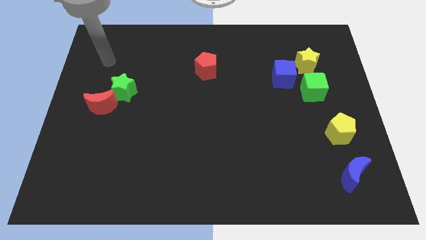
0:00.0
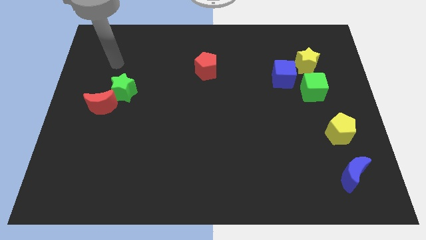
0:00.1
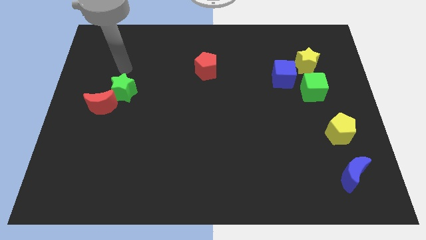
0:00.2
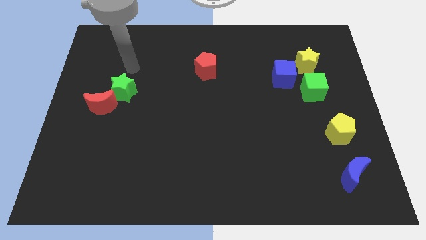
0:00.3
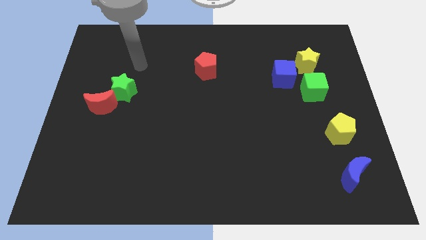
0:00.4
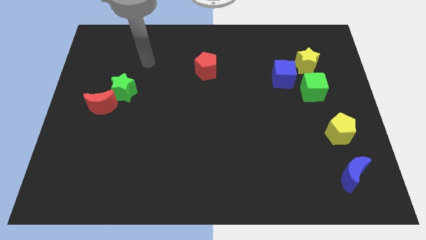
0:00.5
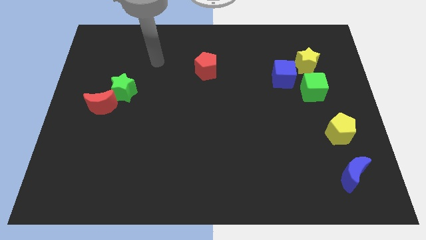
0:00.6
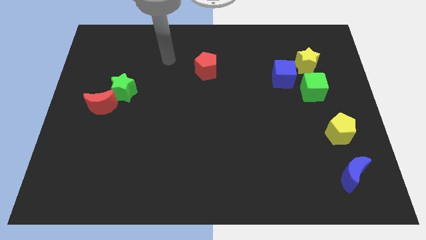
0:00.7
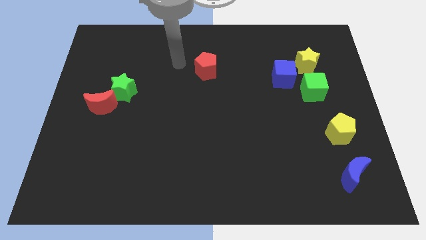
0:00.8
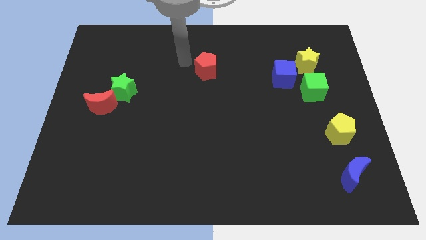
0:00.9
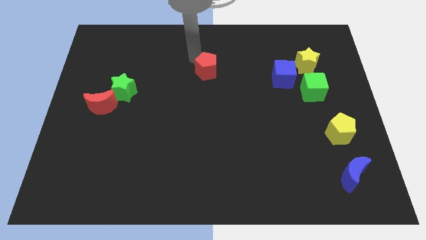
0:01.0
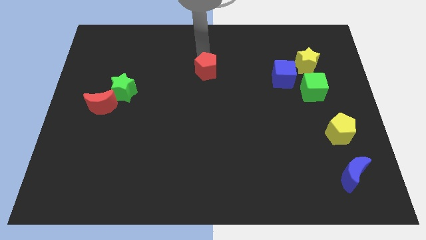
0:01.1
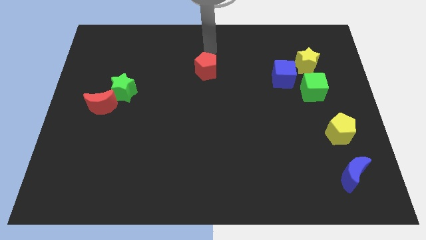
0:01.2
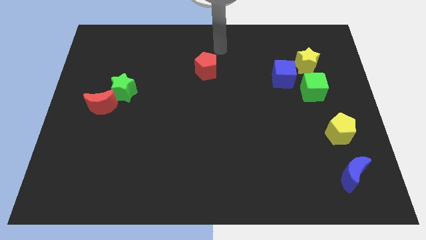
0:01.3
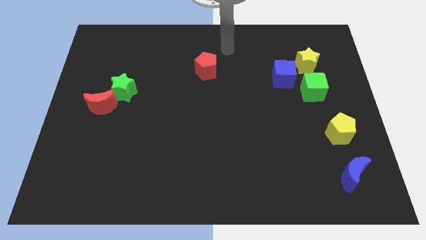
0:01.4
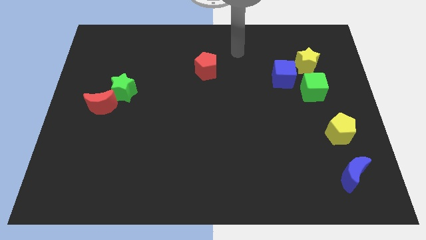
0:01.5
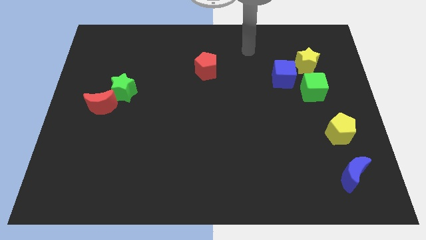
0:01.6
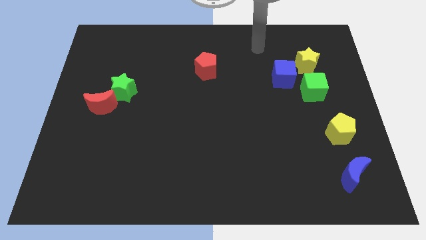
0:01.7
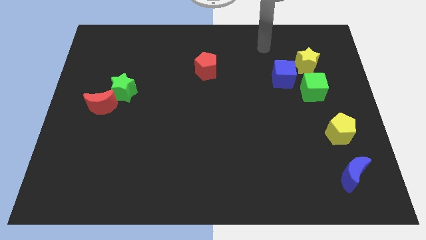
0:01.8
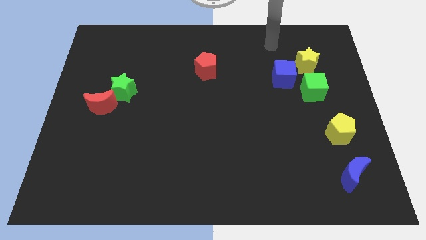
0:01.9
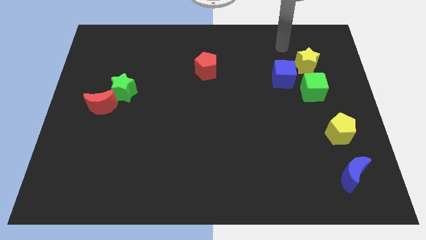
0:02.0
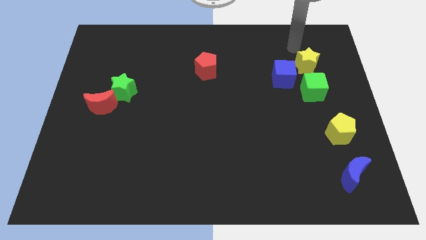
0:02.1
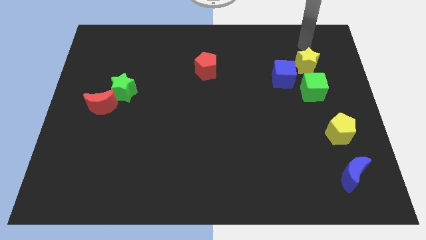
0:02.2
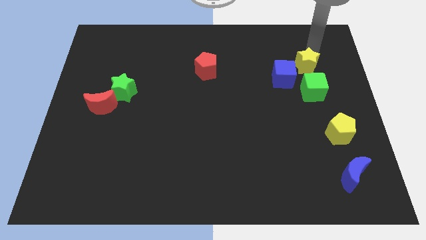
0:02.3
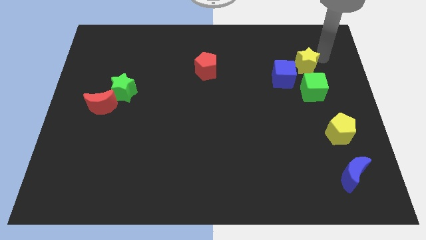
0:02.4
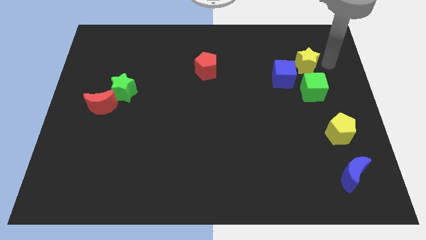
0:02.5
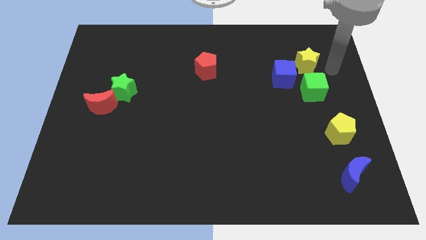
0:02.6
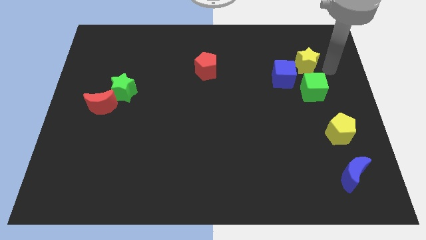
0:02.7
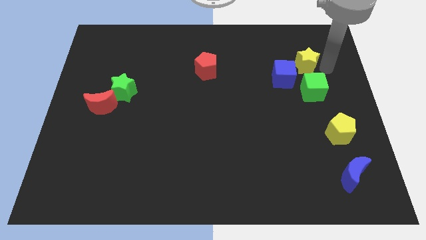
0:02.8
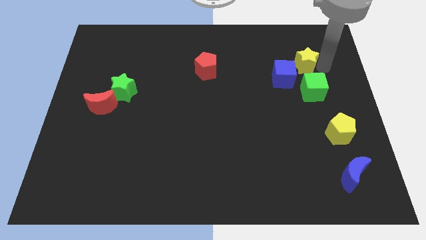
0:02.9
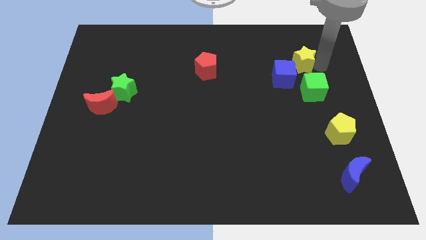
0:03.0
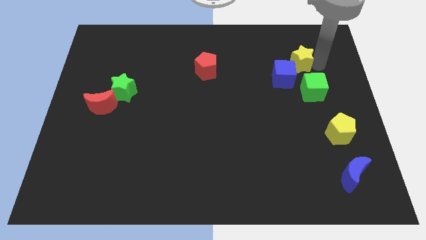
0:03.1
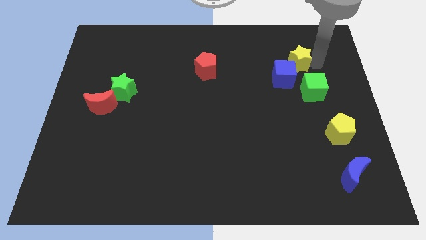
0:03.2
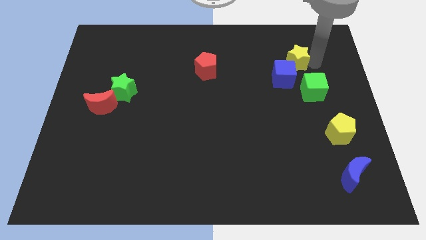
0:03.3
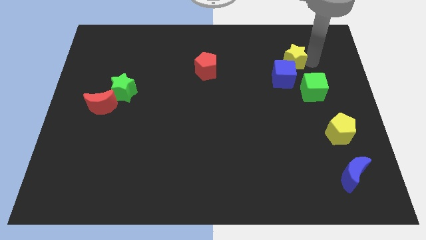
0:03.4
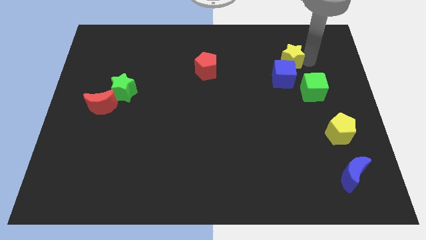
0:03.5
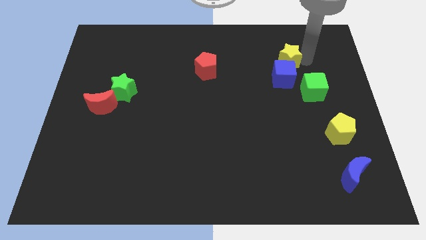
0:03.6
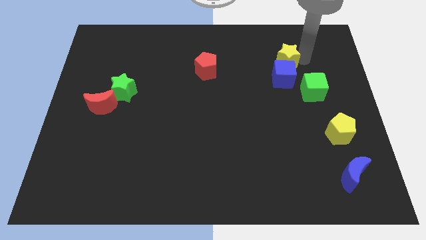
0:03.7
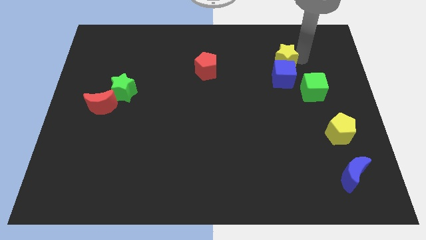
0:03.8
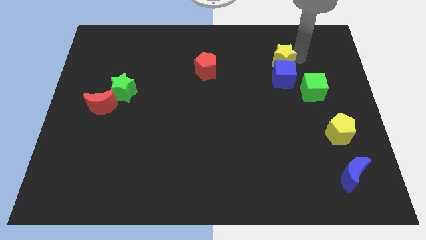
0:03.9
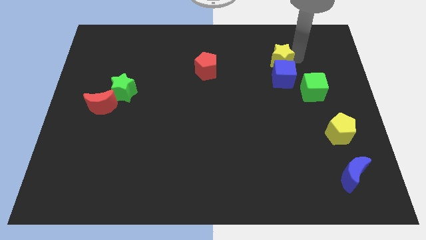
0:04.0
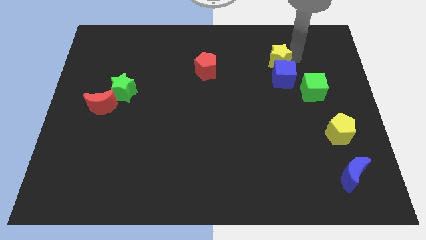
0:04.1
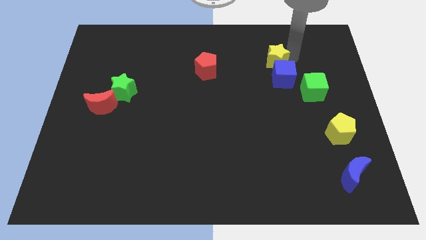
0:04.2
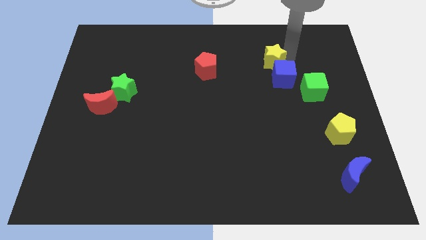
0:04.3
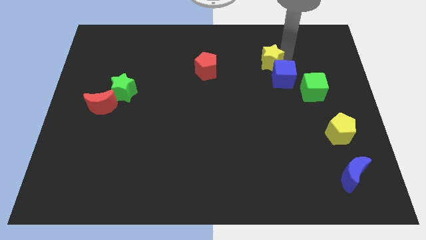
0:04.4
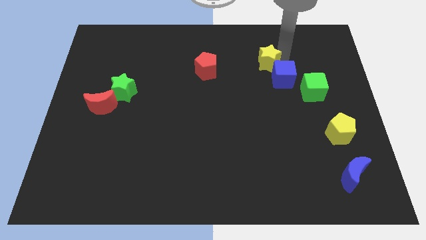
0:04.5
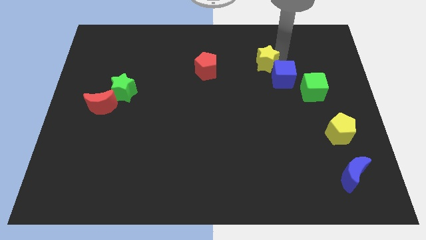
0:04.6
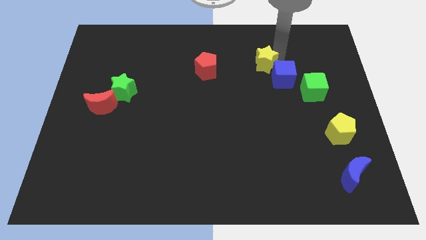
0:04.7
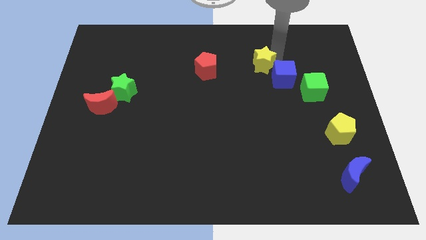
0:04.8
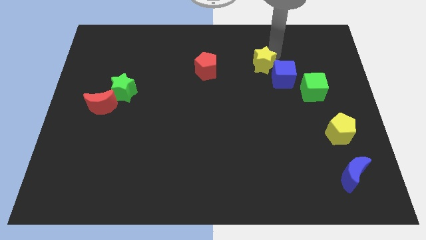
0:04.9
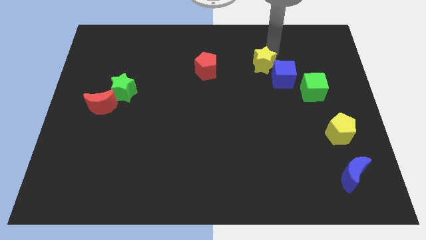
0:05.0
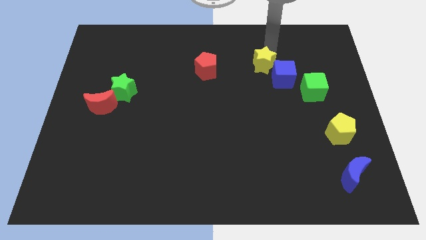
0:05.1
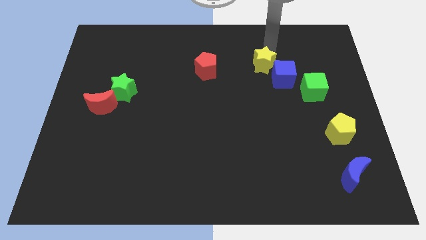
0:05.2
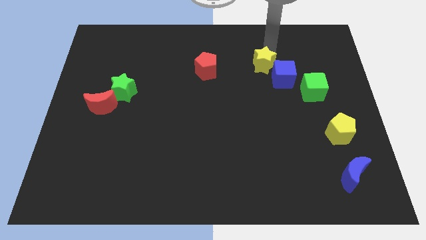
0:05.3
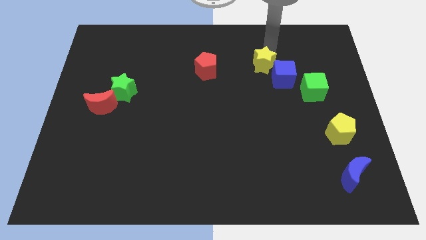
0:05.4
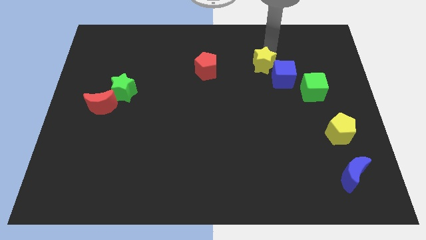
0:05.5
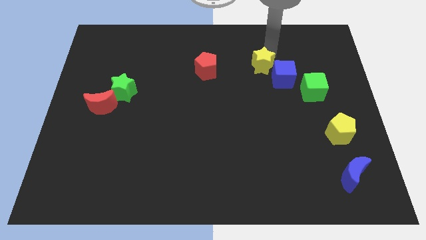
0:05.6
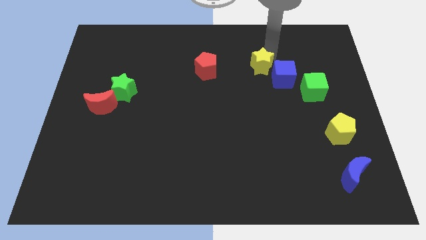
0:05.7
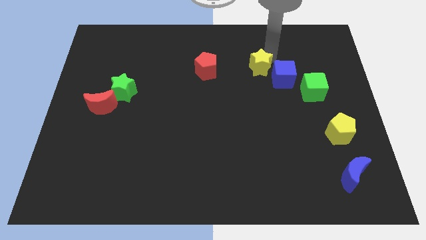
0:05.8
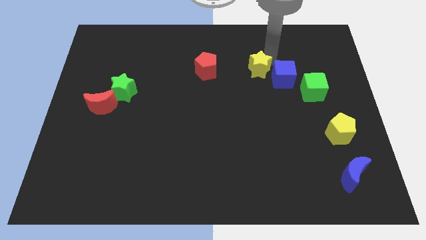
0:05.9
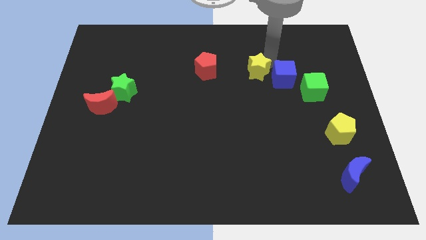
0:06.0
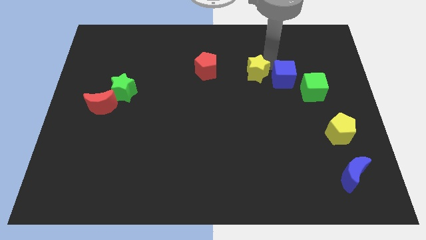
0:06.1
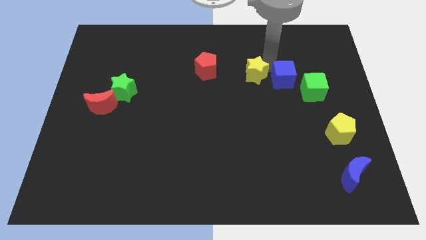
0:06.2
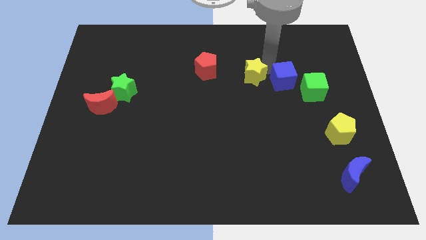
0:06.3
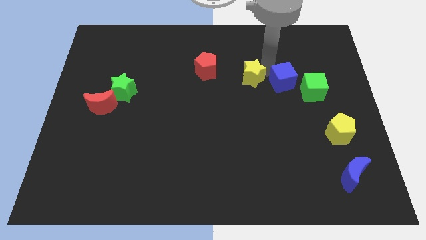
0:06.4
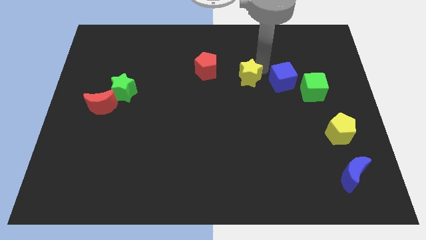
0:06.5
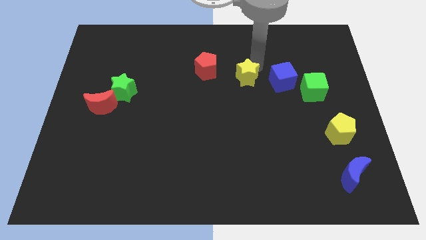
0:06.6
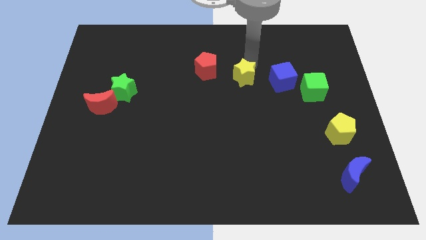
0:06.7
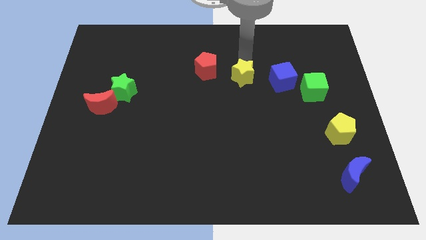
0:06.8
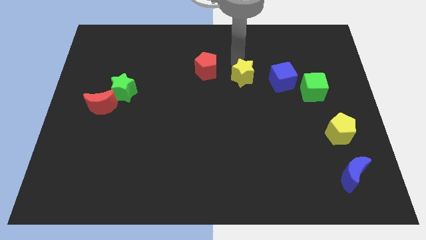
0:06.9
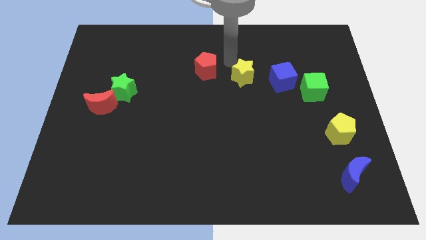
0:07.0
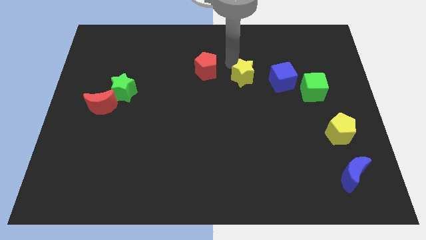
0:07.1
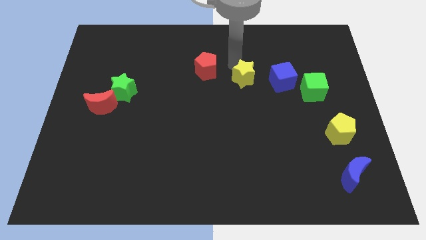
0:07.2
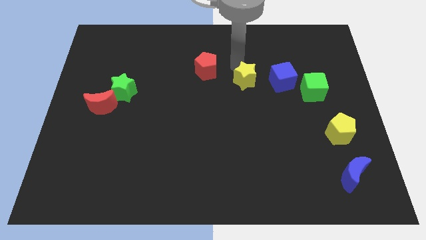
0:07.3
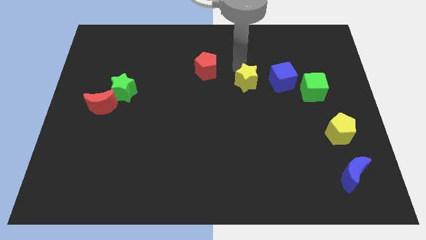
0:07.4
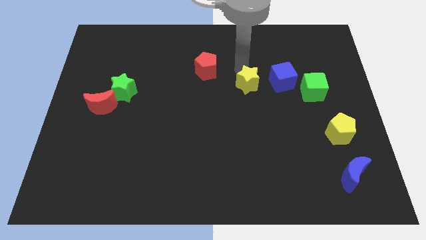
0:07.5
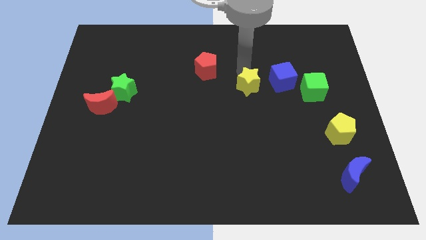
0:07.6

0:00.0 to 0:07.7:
push the yellow star to the bottom left side of the blue cube

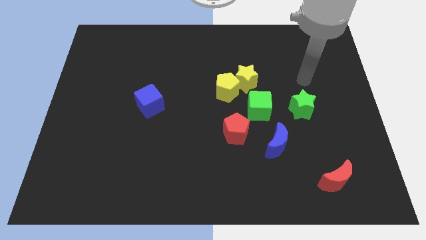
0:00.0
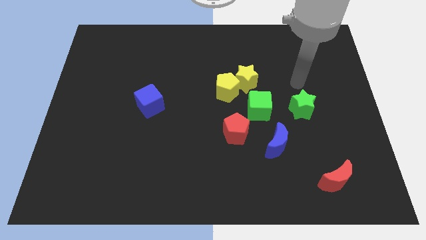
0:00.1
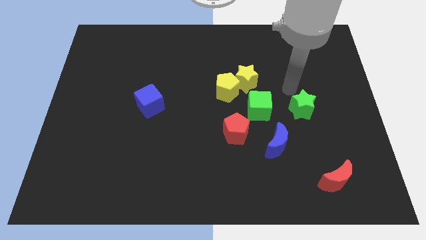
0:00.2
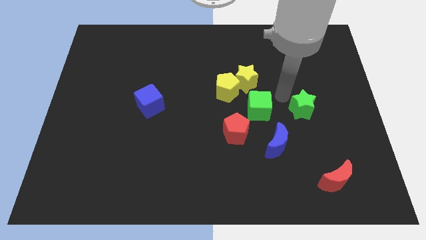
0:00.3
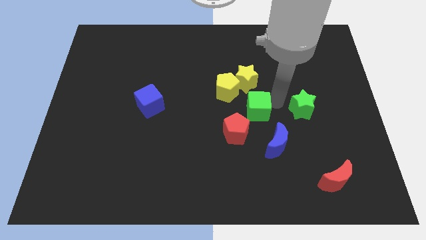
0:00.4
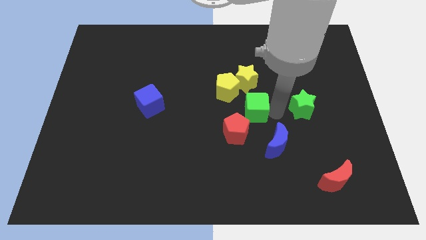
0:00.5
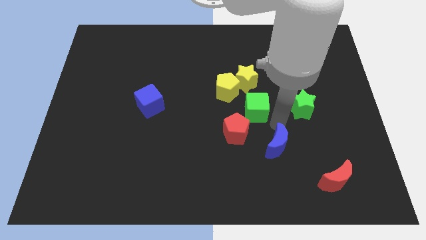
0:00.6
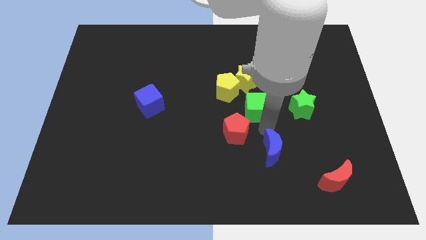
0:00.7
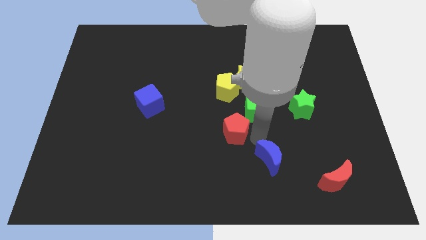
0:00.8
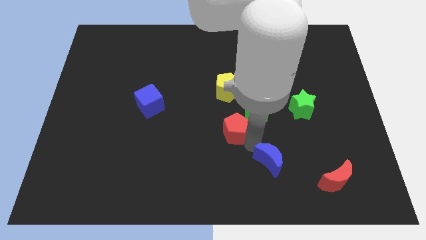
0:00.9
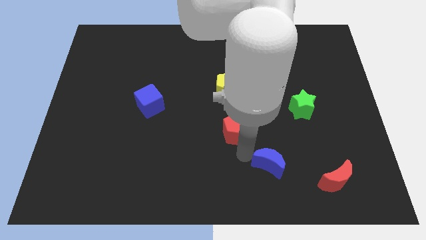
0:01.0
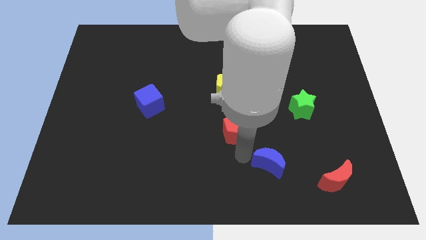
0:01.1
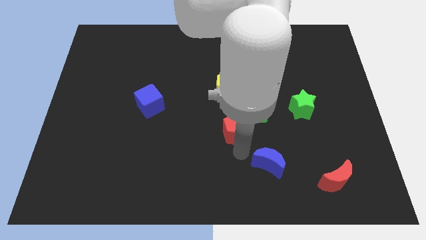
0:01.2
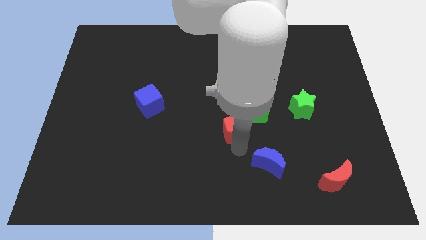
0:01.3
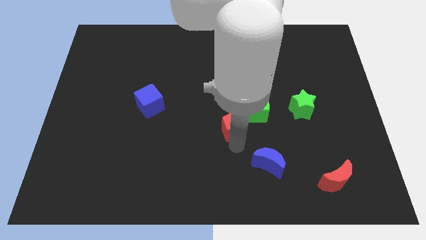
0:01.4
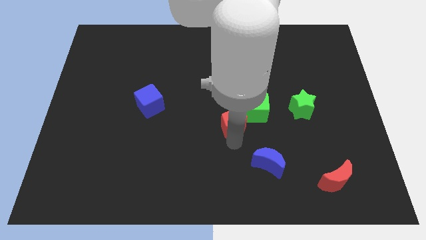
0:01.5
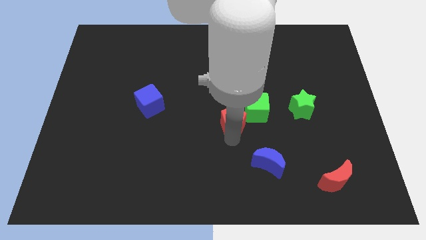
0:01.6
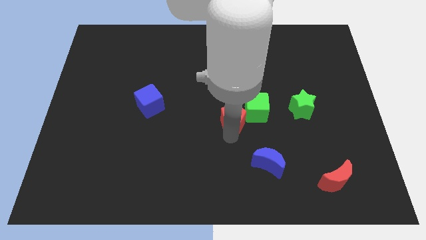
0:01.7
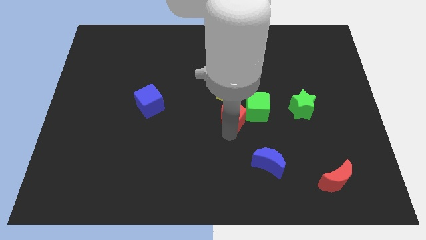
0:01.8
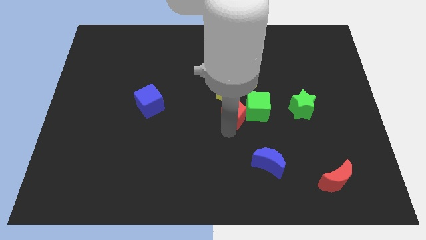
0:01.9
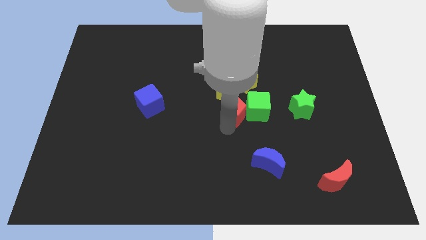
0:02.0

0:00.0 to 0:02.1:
push the red pentagon to the bottom left side of the yellow star
